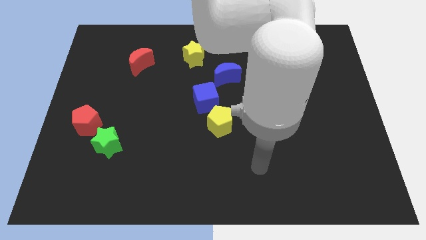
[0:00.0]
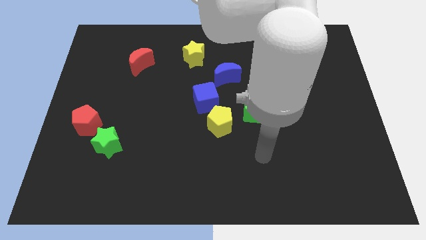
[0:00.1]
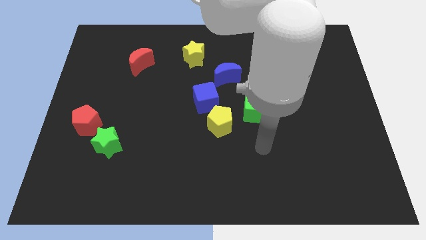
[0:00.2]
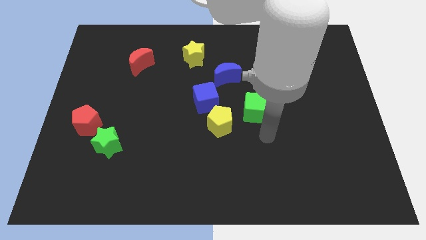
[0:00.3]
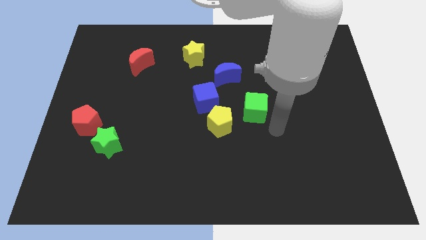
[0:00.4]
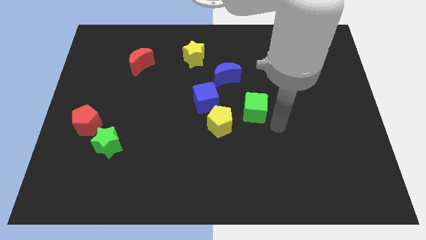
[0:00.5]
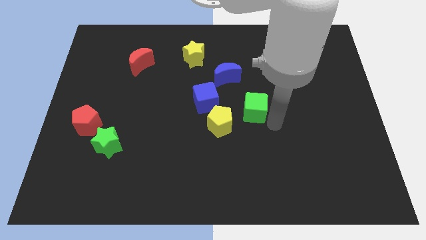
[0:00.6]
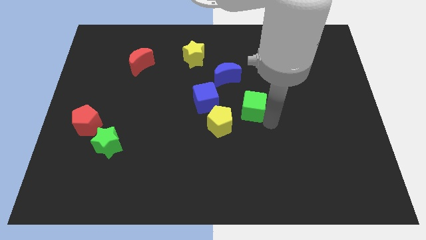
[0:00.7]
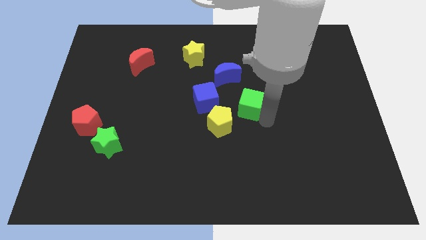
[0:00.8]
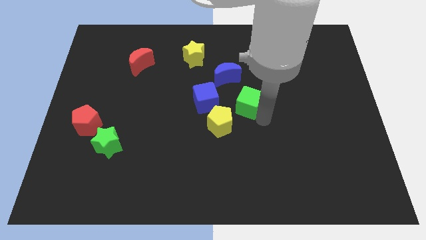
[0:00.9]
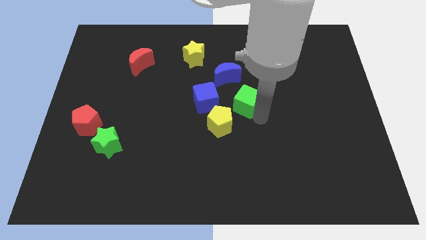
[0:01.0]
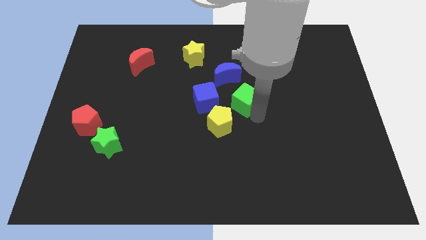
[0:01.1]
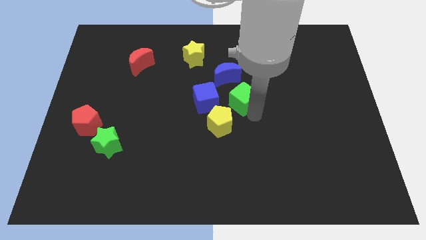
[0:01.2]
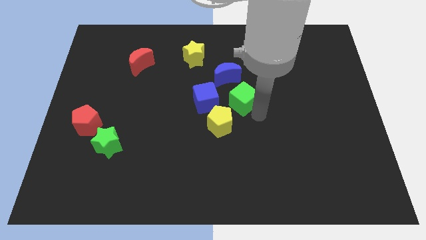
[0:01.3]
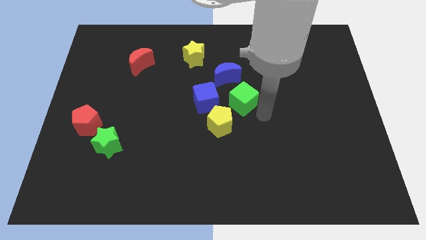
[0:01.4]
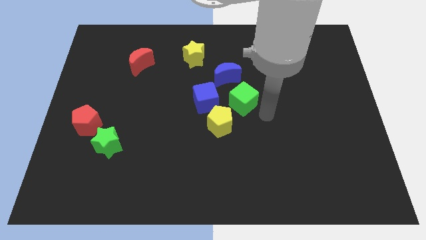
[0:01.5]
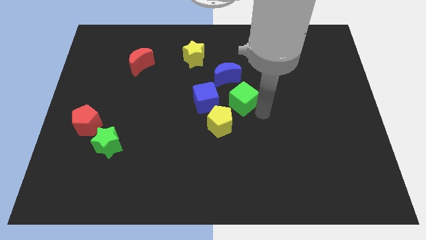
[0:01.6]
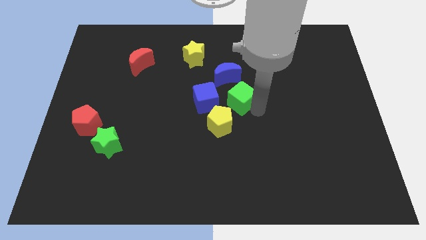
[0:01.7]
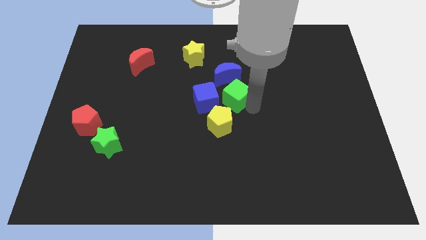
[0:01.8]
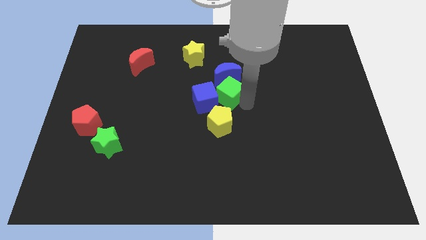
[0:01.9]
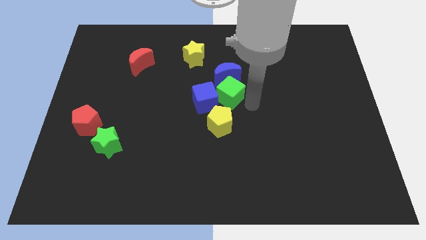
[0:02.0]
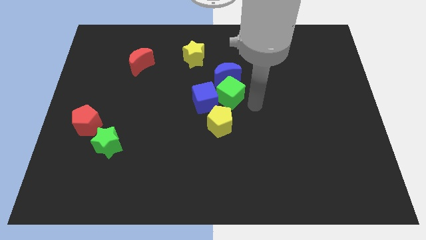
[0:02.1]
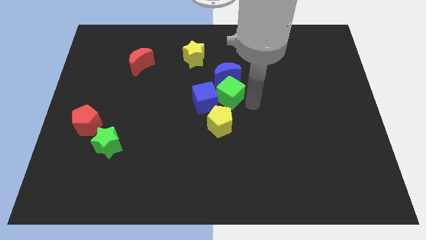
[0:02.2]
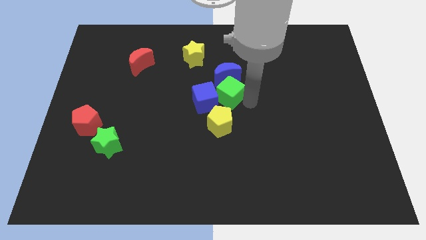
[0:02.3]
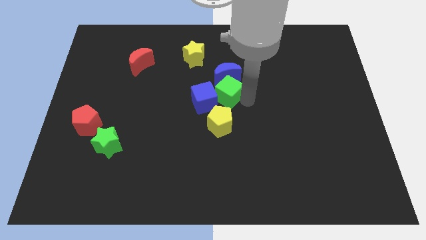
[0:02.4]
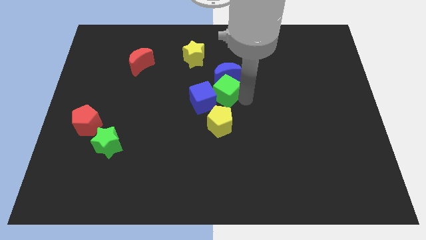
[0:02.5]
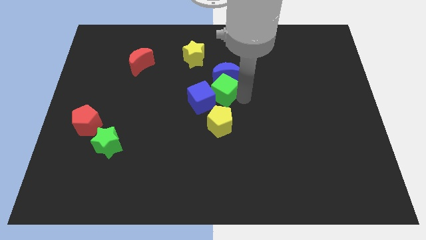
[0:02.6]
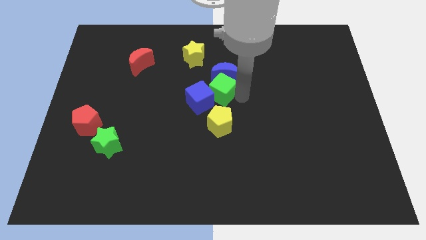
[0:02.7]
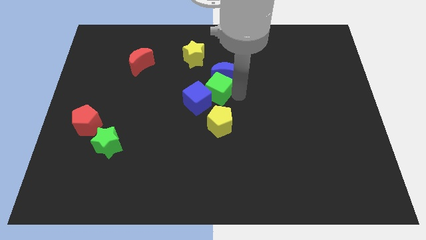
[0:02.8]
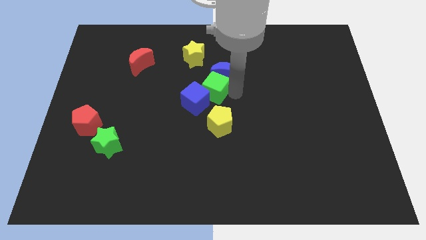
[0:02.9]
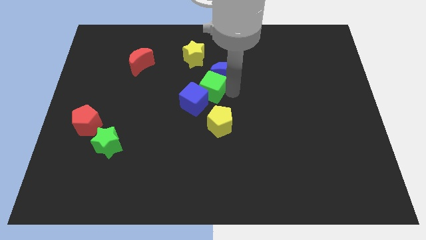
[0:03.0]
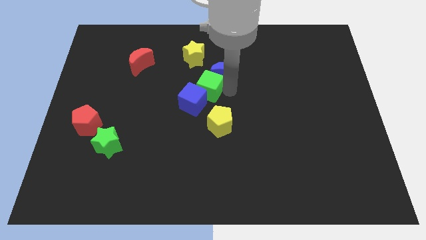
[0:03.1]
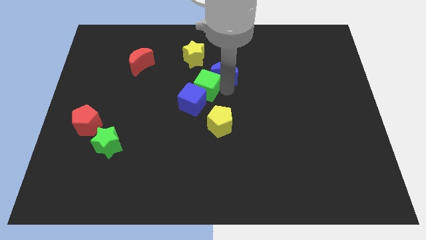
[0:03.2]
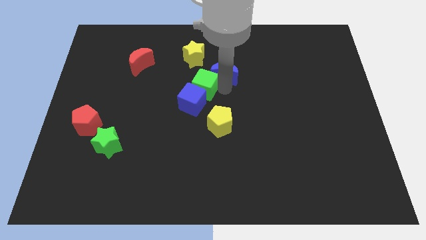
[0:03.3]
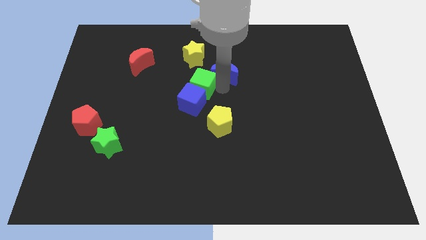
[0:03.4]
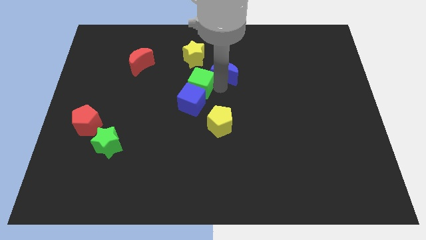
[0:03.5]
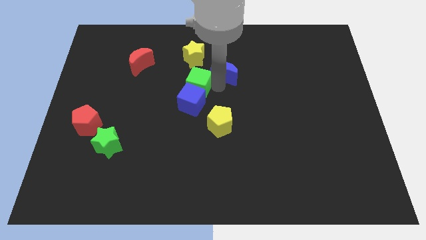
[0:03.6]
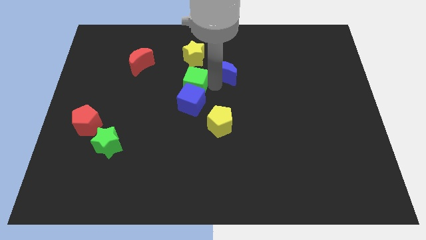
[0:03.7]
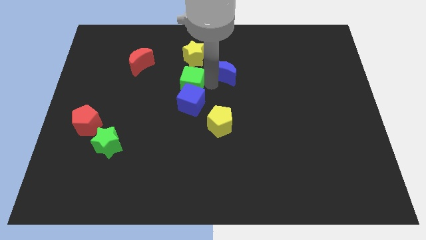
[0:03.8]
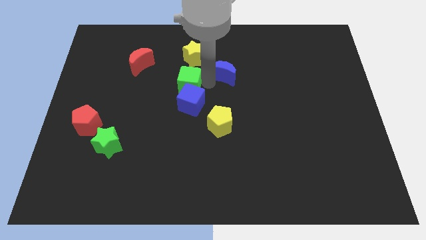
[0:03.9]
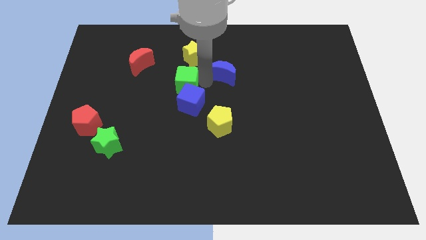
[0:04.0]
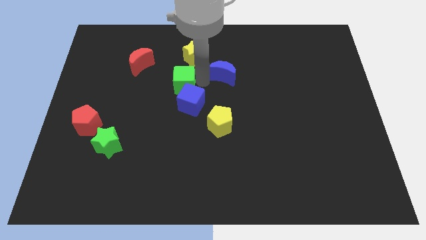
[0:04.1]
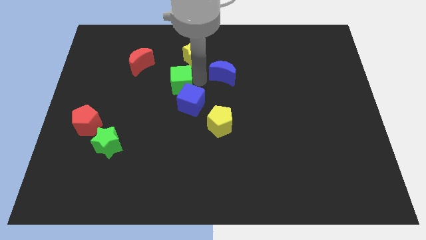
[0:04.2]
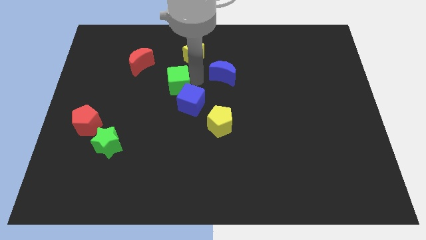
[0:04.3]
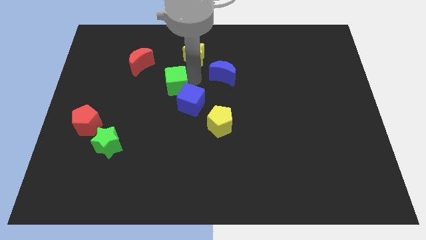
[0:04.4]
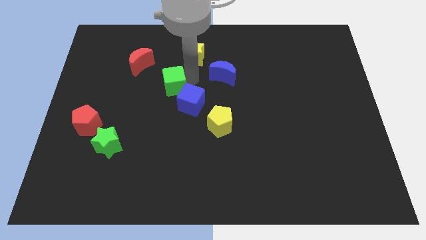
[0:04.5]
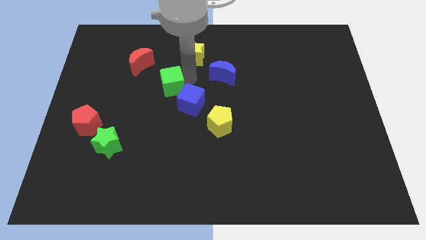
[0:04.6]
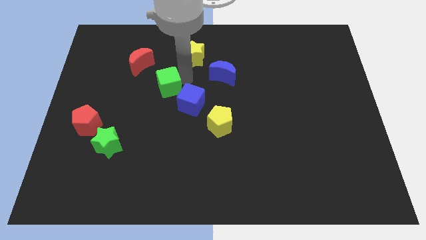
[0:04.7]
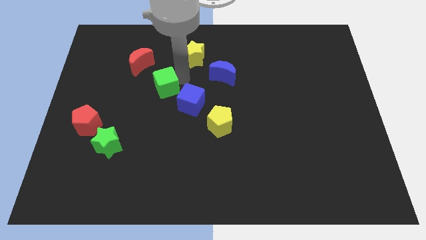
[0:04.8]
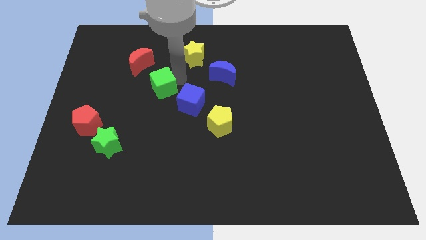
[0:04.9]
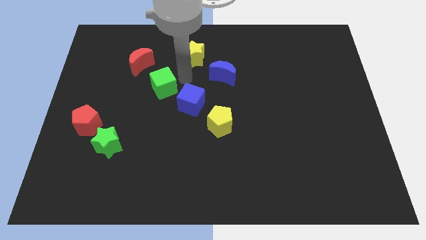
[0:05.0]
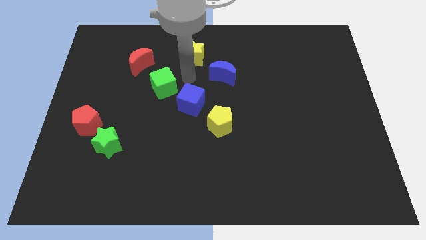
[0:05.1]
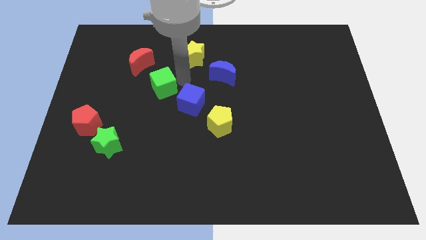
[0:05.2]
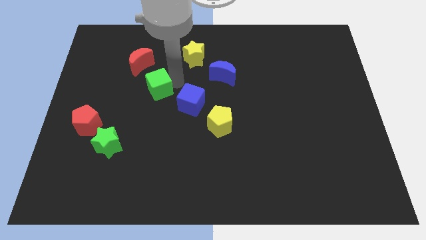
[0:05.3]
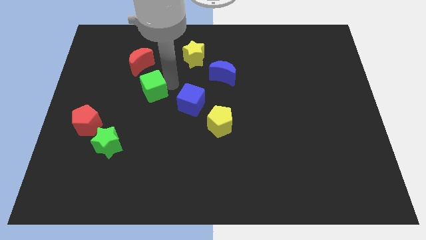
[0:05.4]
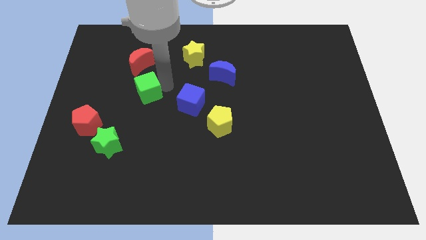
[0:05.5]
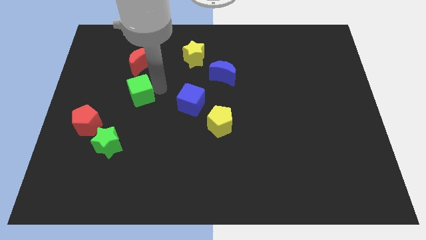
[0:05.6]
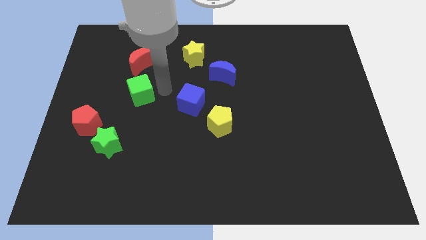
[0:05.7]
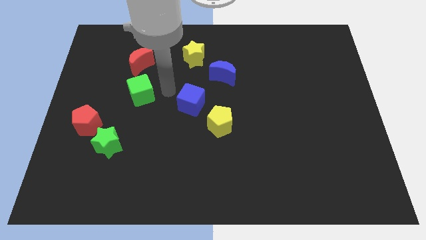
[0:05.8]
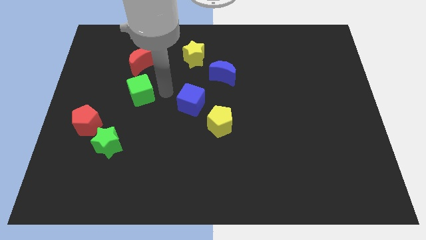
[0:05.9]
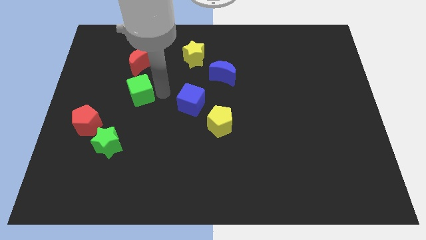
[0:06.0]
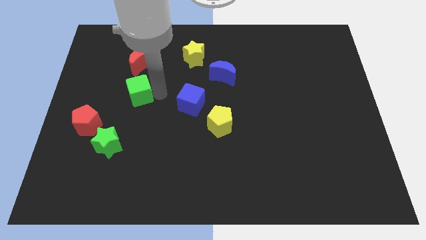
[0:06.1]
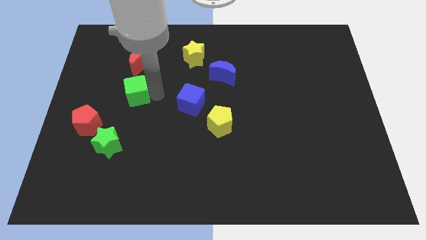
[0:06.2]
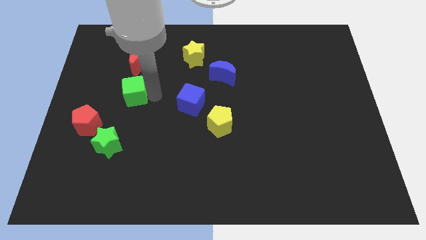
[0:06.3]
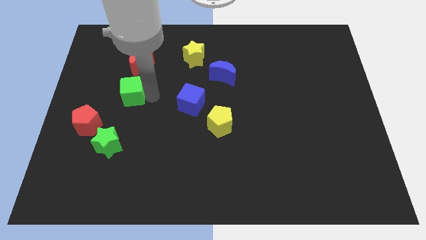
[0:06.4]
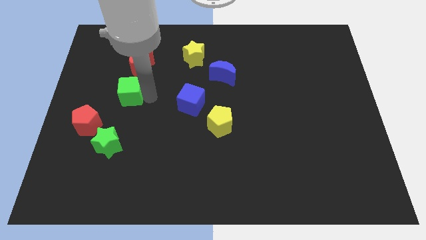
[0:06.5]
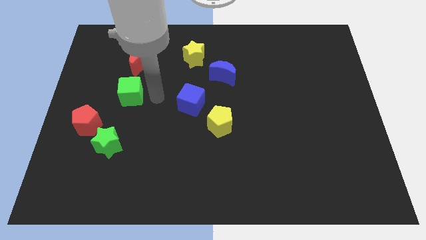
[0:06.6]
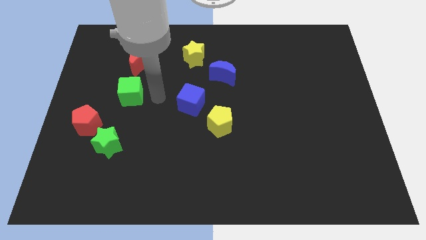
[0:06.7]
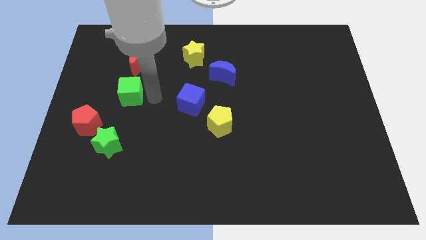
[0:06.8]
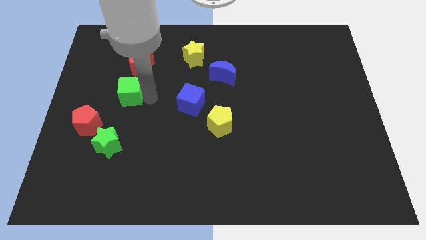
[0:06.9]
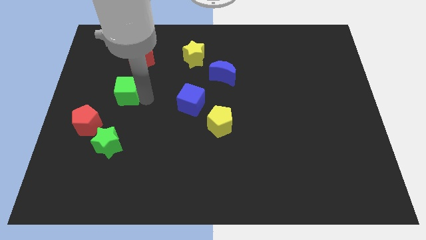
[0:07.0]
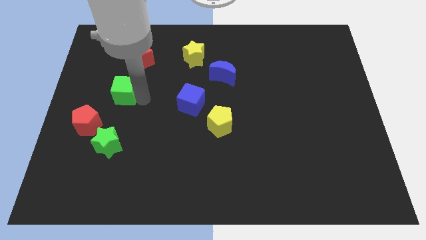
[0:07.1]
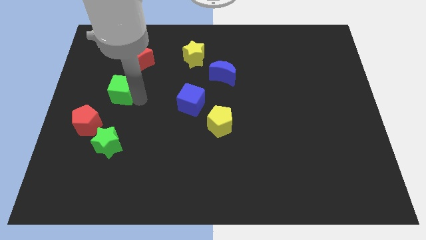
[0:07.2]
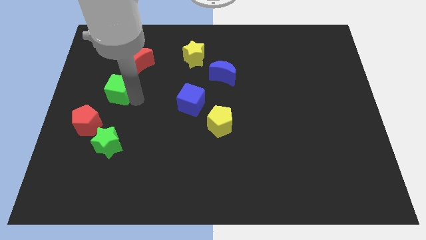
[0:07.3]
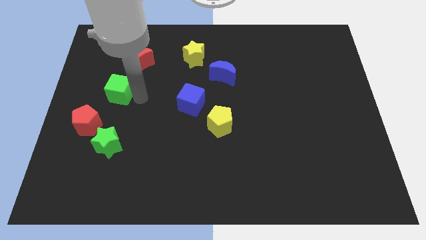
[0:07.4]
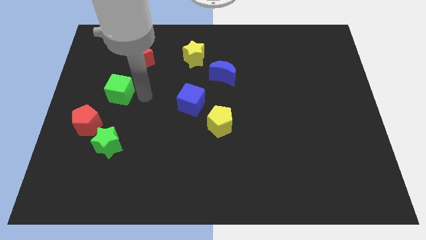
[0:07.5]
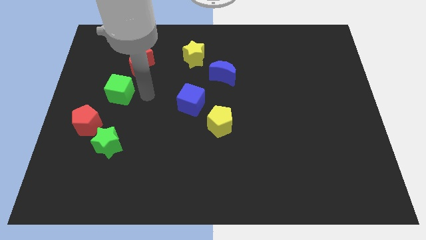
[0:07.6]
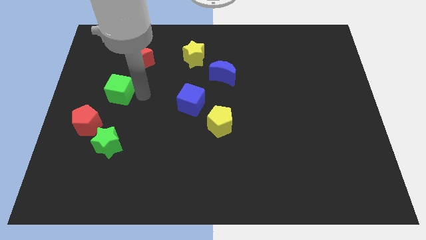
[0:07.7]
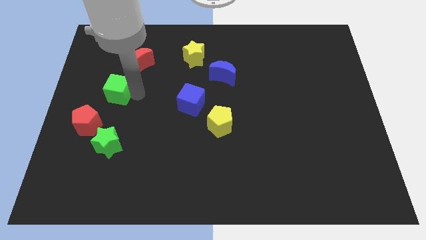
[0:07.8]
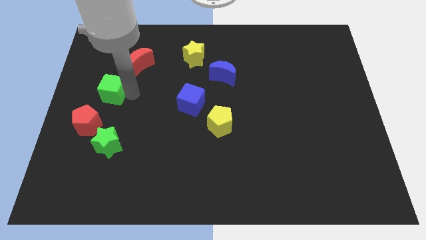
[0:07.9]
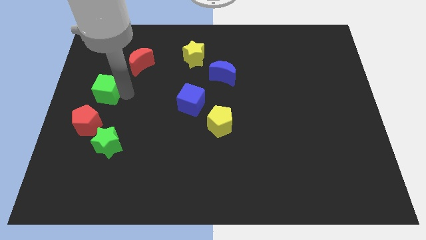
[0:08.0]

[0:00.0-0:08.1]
put the green cube to the center left
